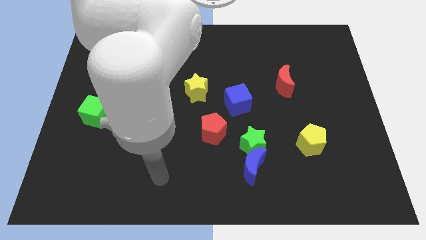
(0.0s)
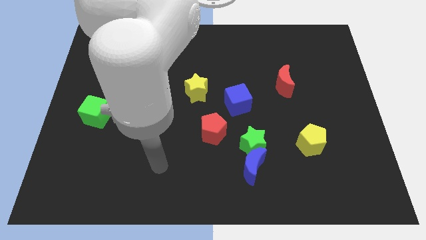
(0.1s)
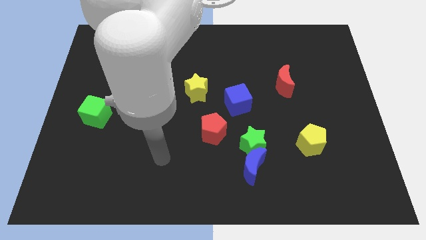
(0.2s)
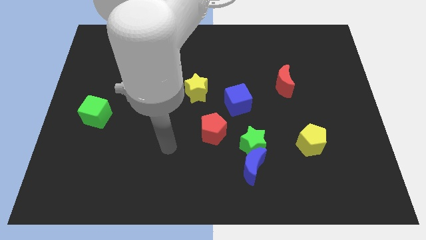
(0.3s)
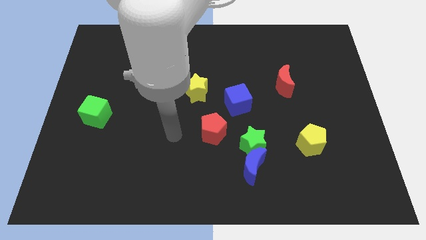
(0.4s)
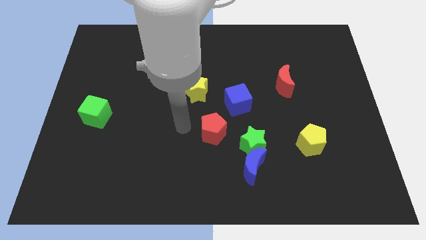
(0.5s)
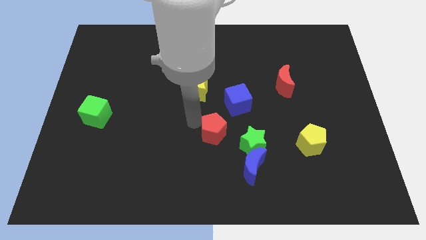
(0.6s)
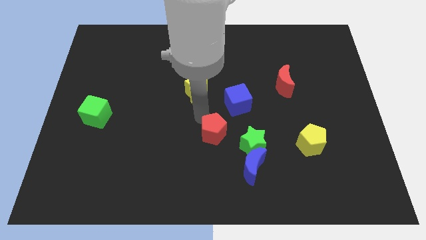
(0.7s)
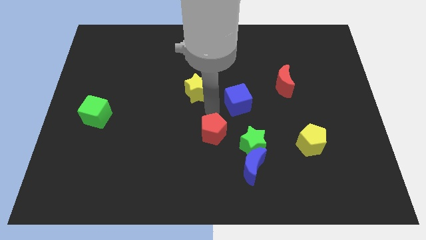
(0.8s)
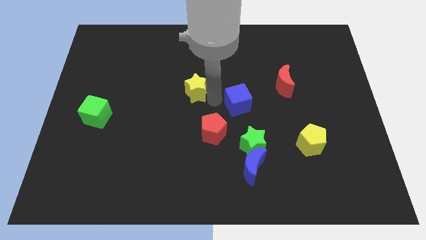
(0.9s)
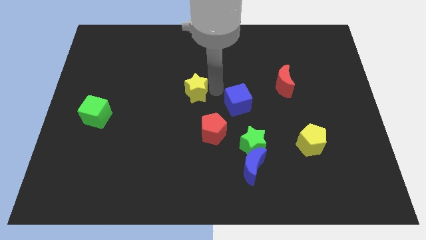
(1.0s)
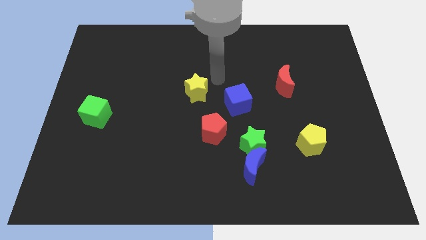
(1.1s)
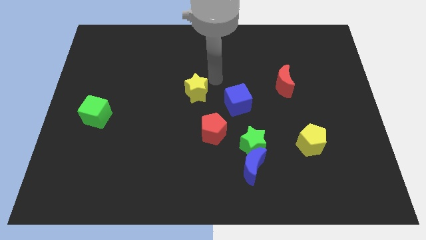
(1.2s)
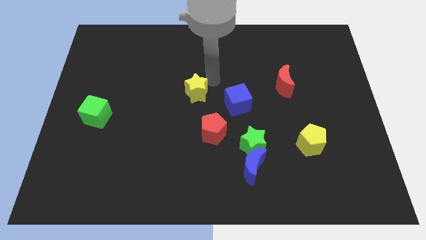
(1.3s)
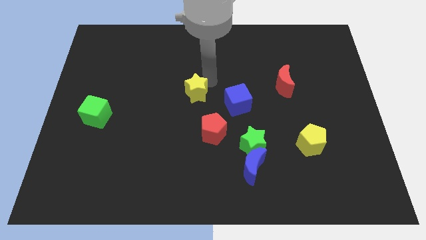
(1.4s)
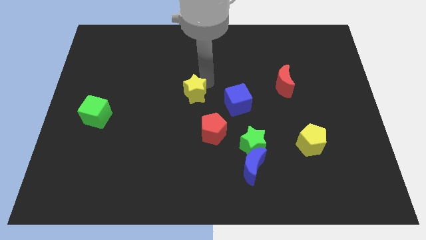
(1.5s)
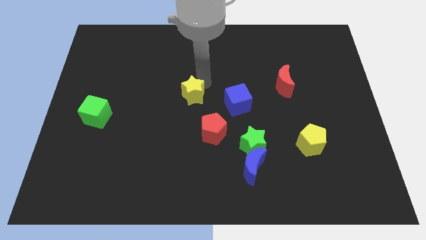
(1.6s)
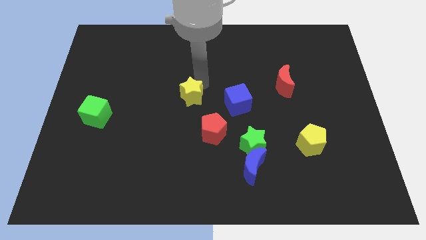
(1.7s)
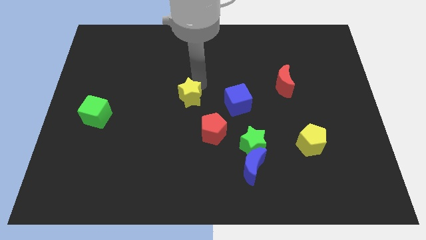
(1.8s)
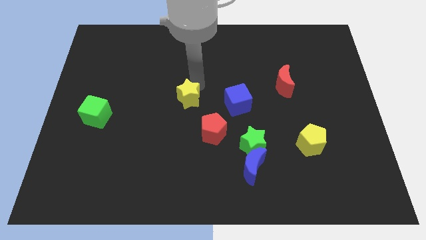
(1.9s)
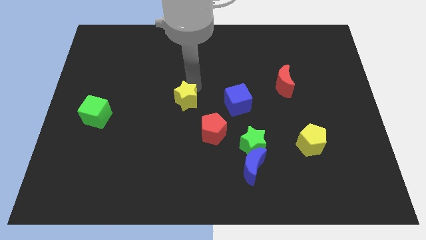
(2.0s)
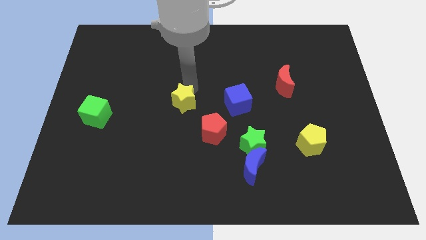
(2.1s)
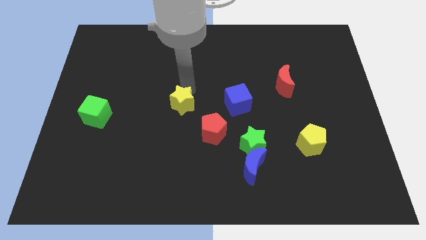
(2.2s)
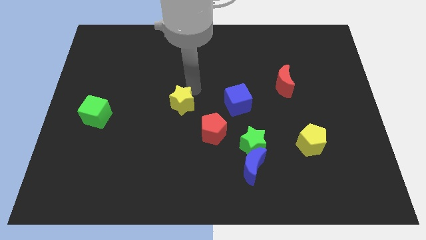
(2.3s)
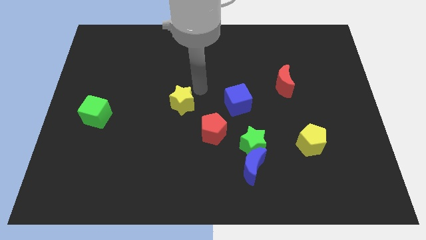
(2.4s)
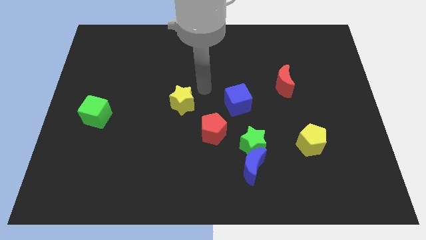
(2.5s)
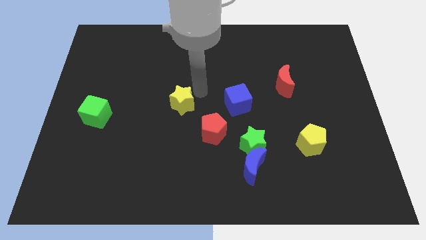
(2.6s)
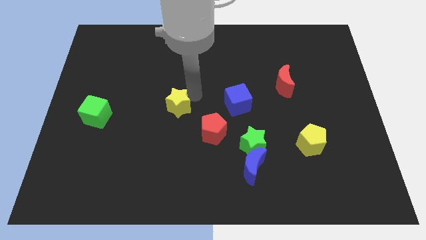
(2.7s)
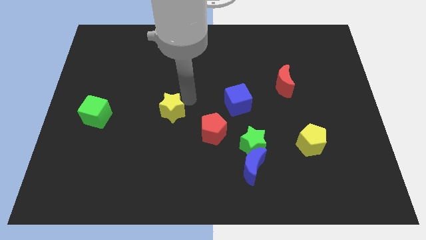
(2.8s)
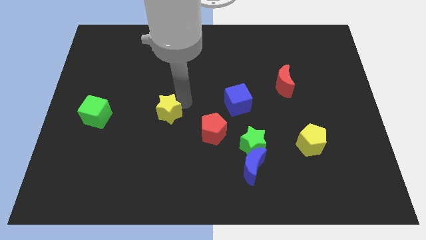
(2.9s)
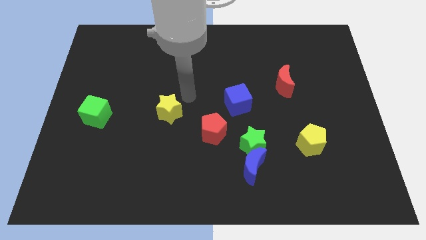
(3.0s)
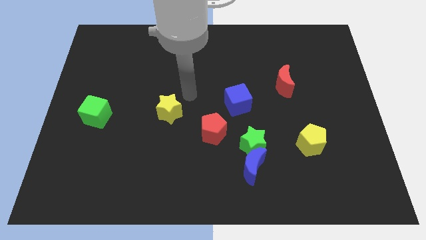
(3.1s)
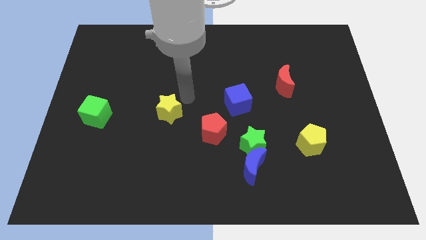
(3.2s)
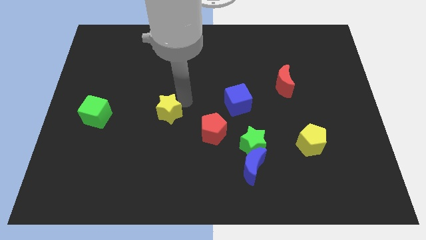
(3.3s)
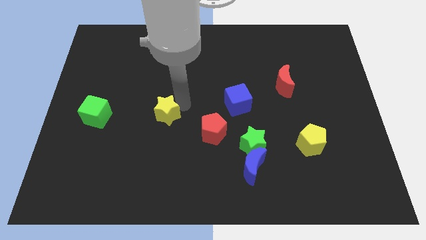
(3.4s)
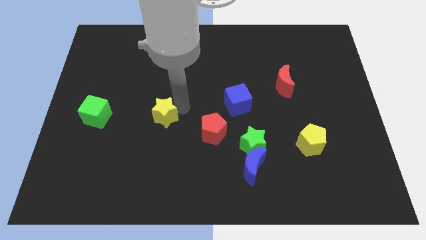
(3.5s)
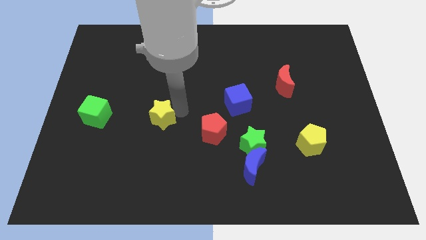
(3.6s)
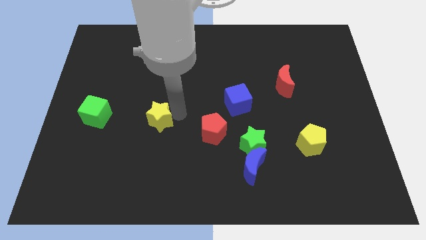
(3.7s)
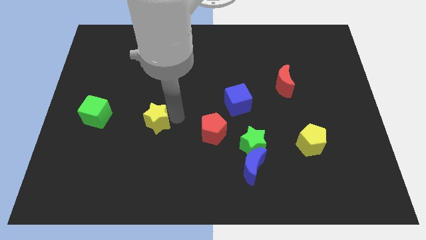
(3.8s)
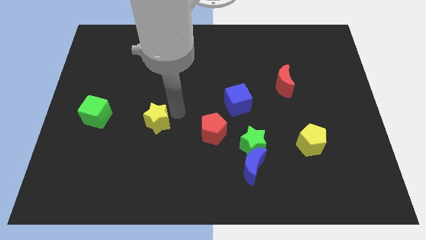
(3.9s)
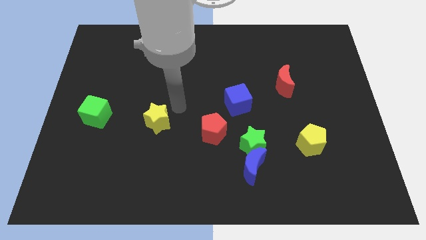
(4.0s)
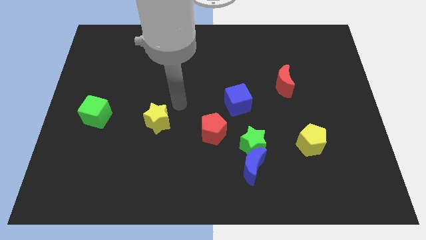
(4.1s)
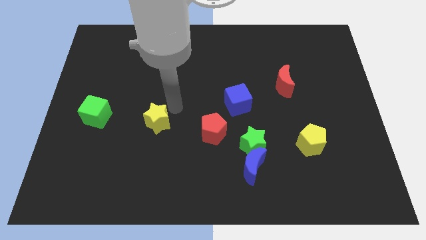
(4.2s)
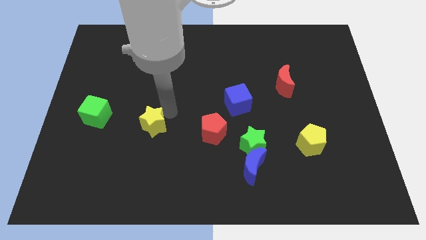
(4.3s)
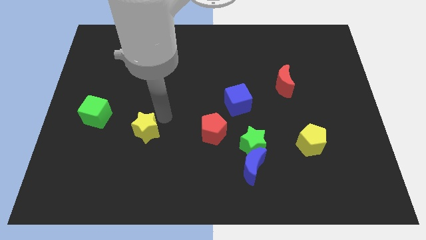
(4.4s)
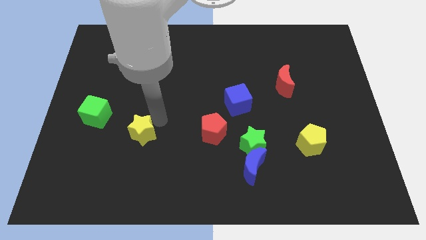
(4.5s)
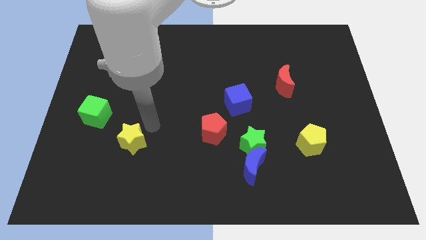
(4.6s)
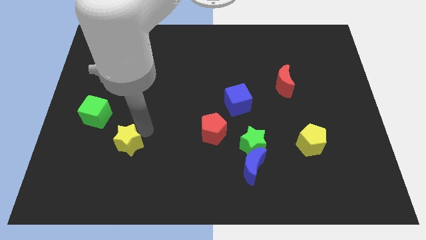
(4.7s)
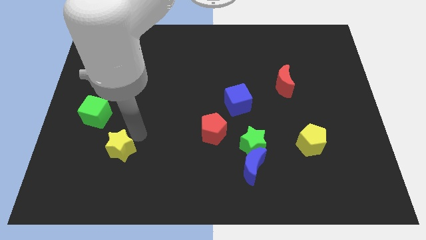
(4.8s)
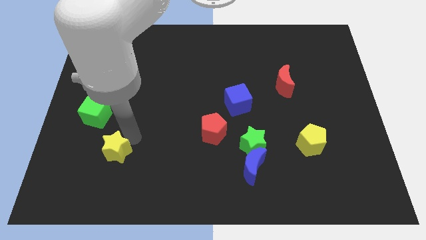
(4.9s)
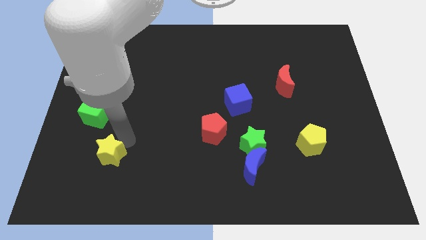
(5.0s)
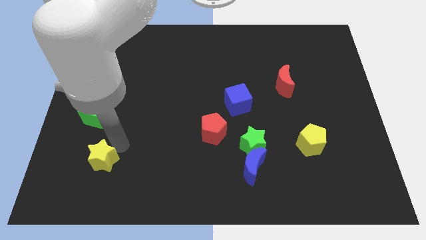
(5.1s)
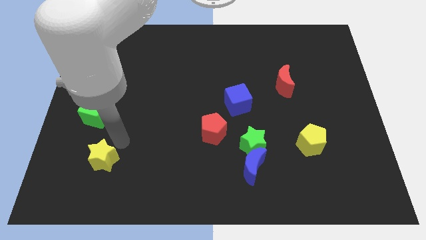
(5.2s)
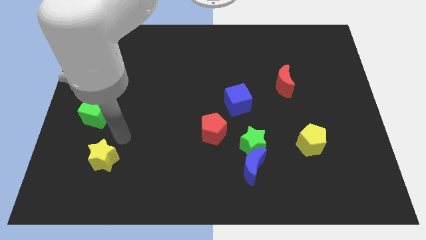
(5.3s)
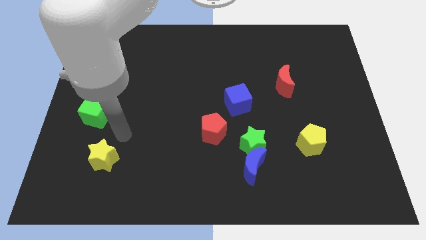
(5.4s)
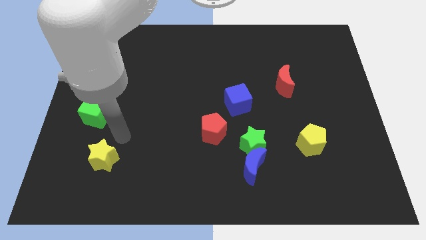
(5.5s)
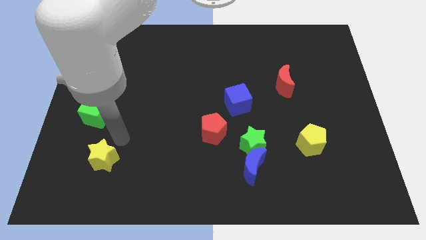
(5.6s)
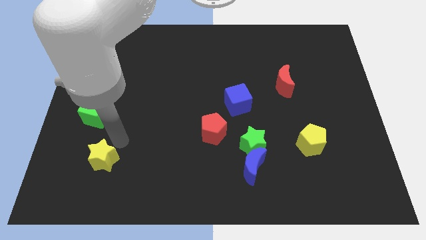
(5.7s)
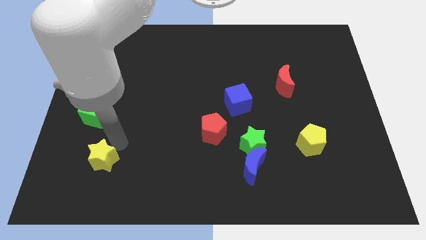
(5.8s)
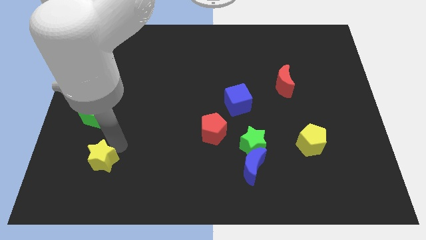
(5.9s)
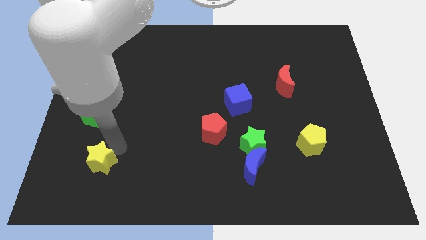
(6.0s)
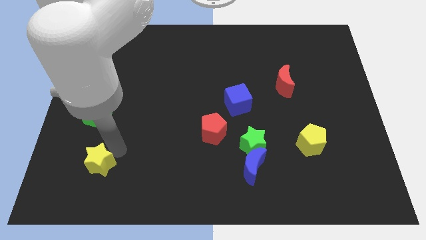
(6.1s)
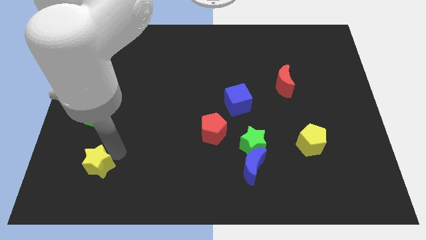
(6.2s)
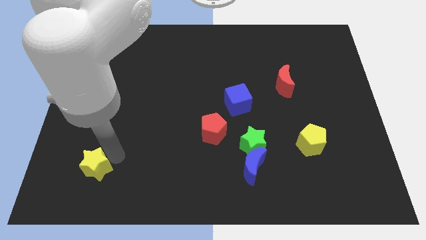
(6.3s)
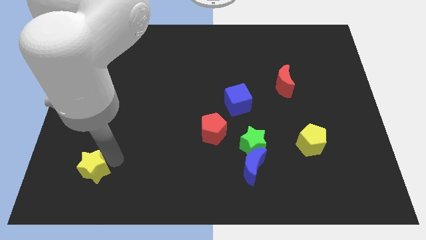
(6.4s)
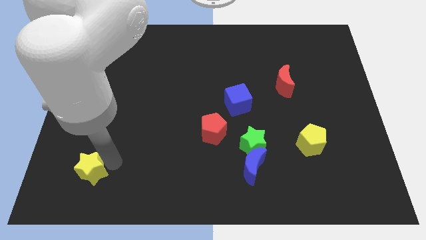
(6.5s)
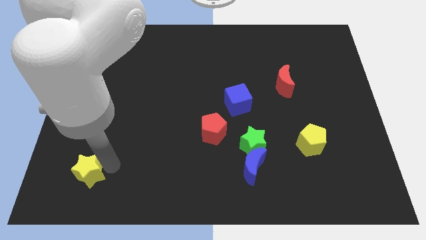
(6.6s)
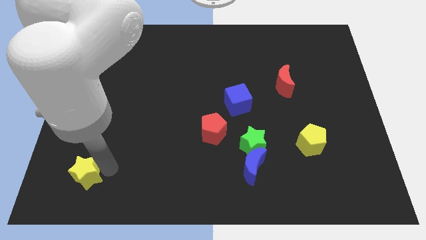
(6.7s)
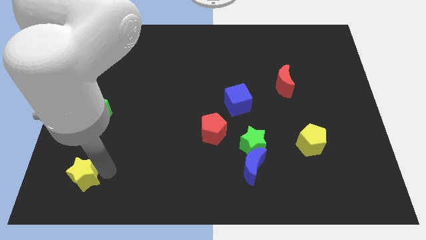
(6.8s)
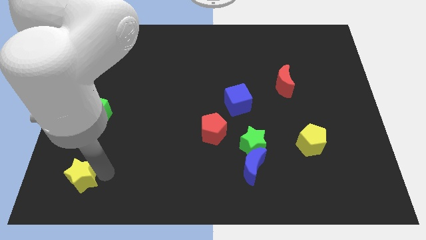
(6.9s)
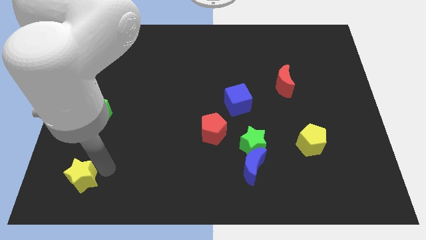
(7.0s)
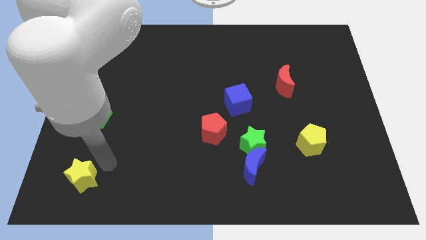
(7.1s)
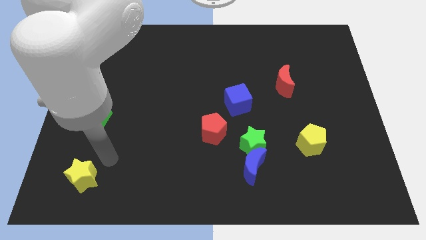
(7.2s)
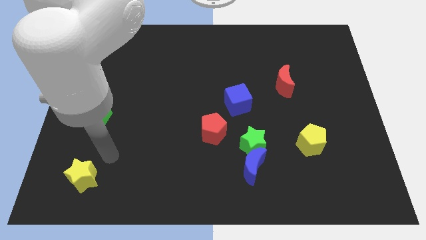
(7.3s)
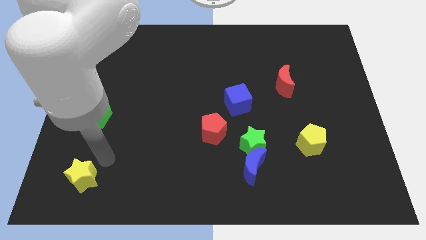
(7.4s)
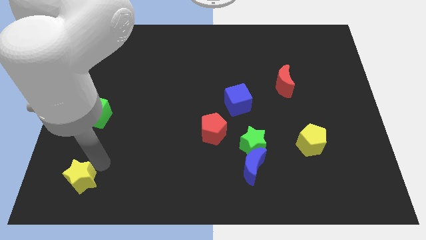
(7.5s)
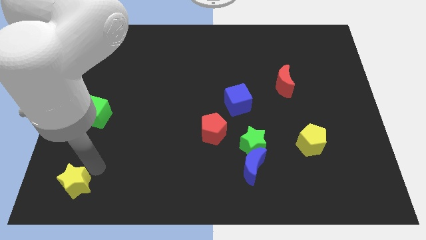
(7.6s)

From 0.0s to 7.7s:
push the yellow star to the bottom left corner
